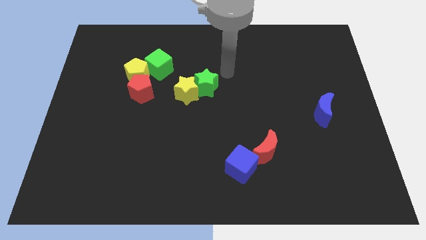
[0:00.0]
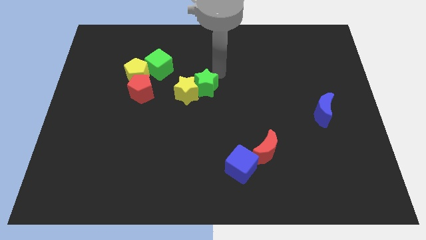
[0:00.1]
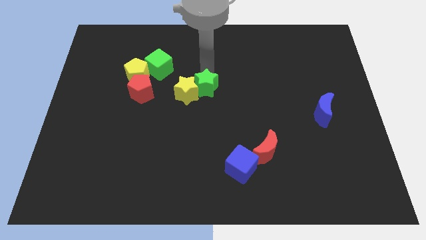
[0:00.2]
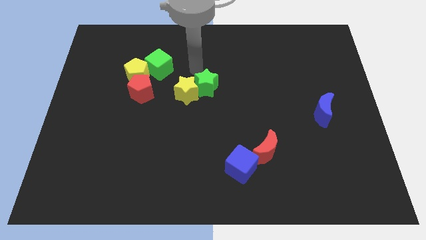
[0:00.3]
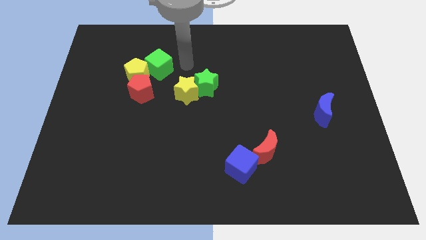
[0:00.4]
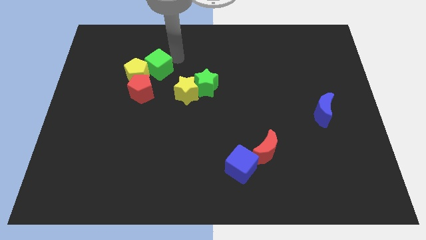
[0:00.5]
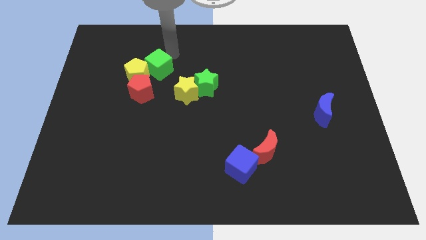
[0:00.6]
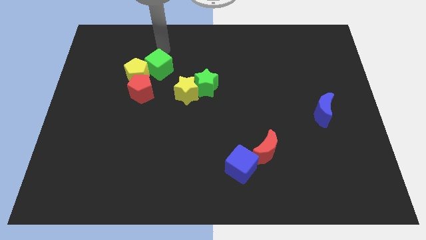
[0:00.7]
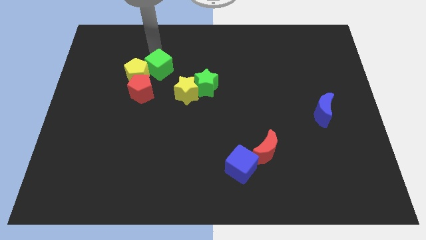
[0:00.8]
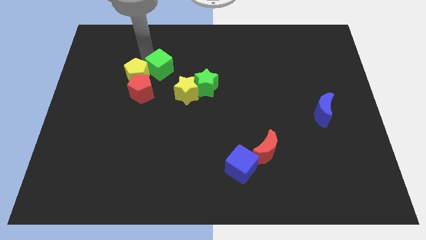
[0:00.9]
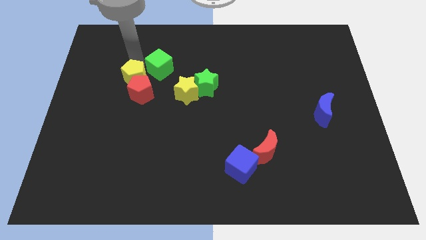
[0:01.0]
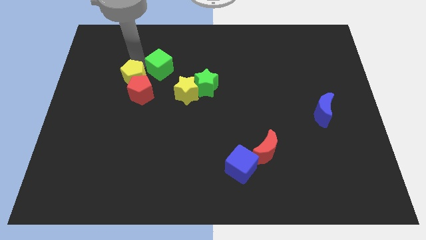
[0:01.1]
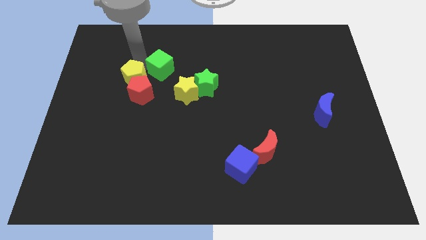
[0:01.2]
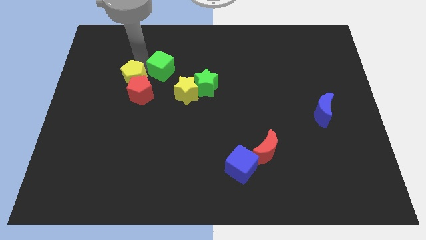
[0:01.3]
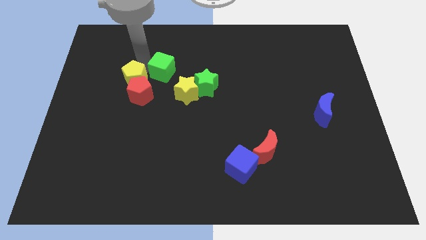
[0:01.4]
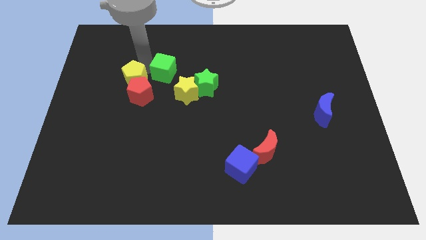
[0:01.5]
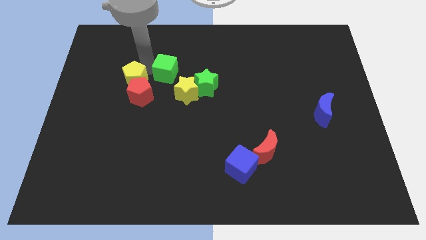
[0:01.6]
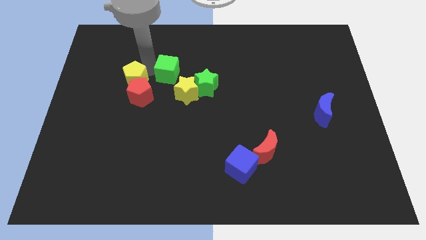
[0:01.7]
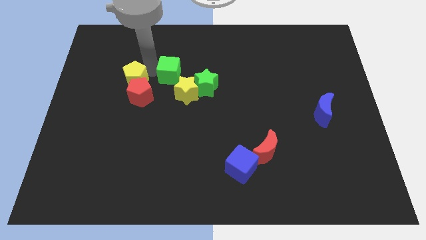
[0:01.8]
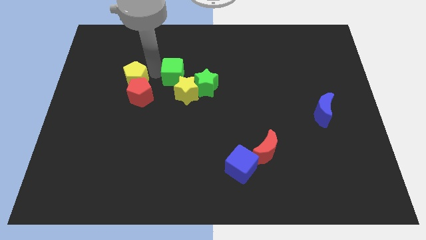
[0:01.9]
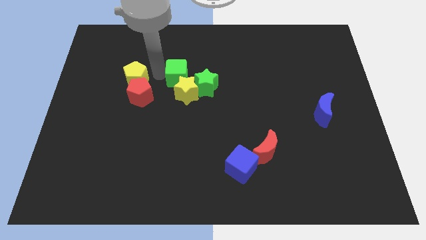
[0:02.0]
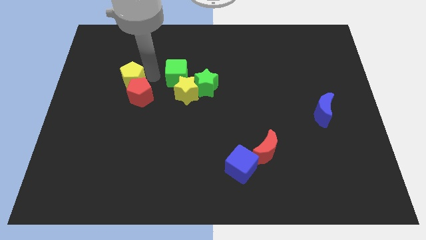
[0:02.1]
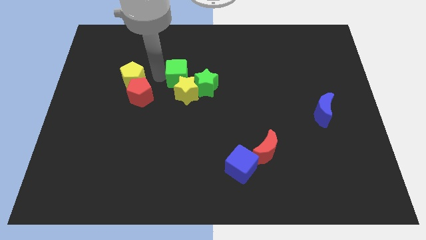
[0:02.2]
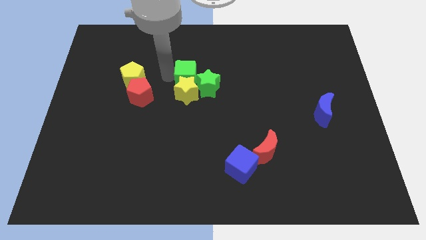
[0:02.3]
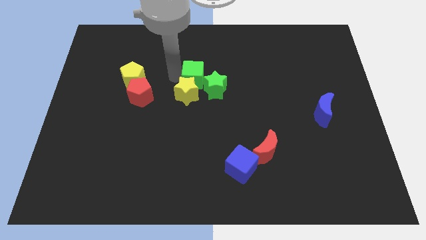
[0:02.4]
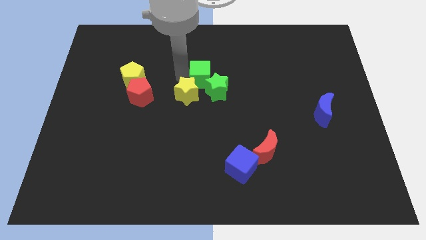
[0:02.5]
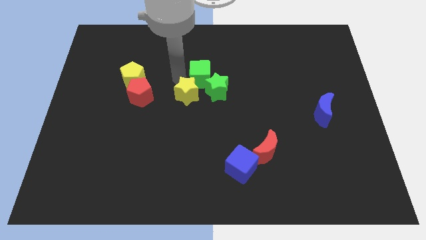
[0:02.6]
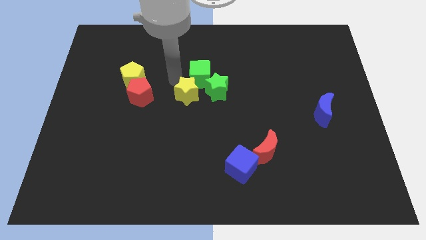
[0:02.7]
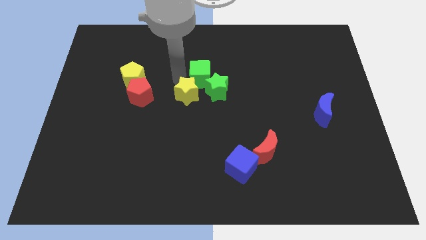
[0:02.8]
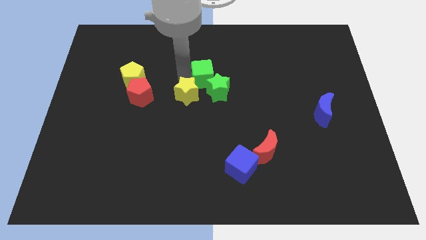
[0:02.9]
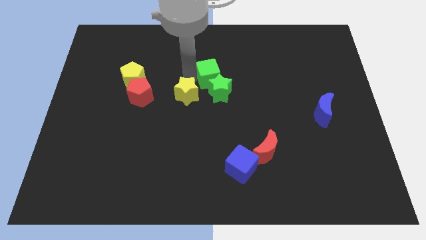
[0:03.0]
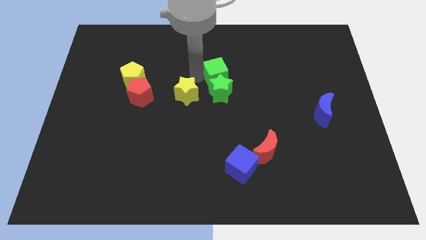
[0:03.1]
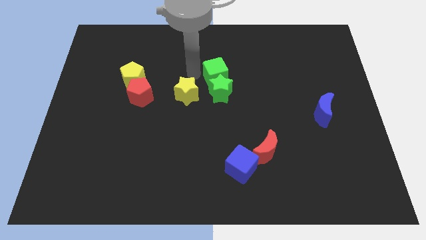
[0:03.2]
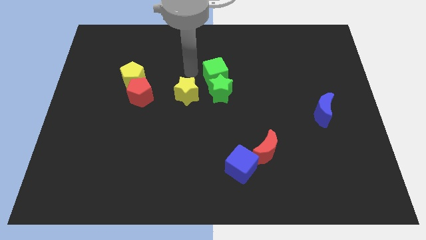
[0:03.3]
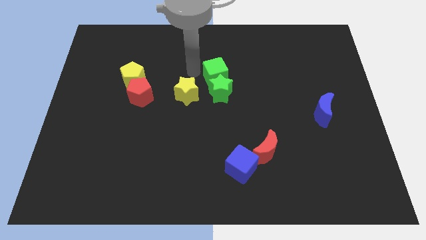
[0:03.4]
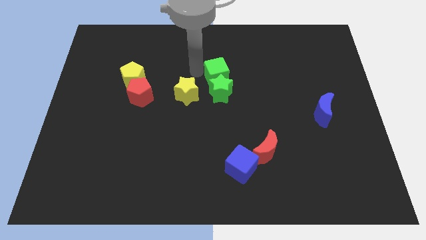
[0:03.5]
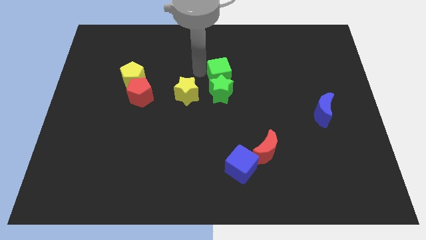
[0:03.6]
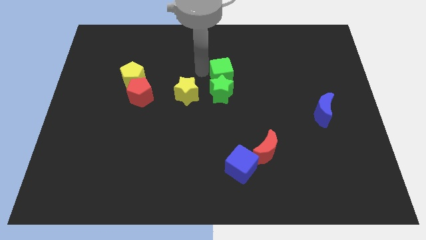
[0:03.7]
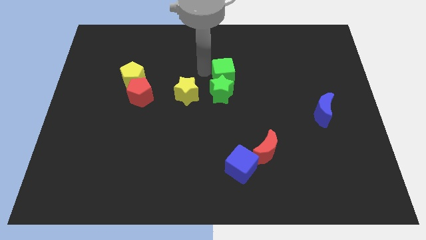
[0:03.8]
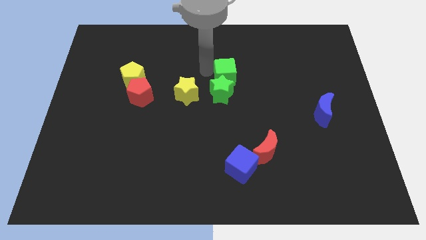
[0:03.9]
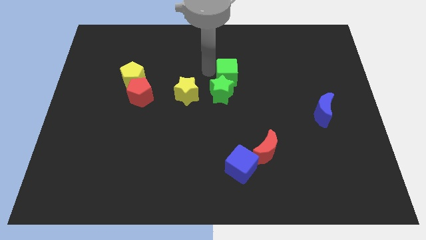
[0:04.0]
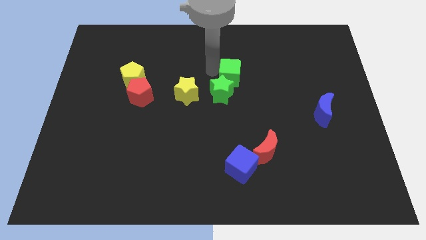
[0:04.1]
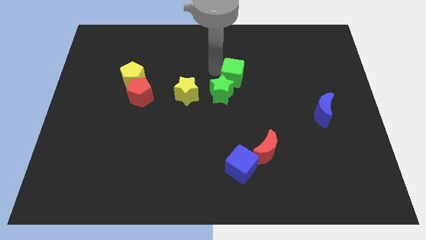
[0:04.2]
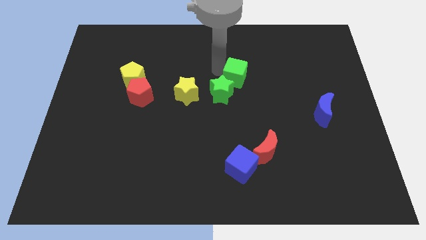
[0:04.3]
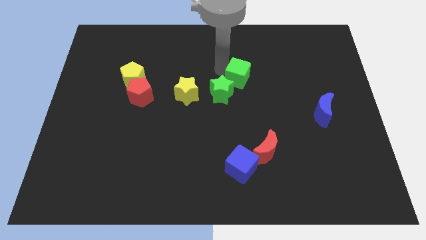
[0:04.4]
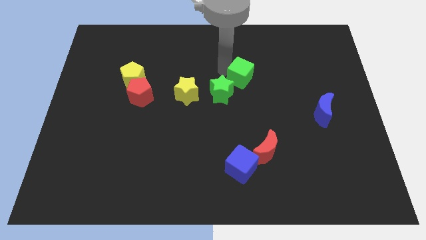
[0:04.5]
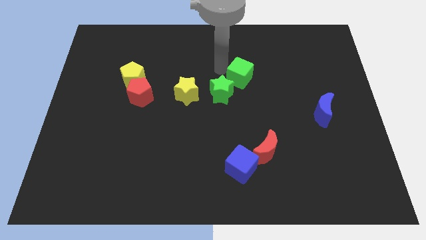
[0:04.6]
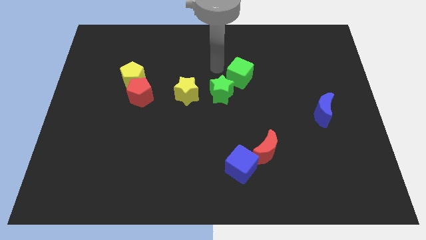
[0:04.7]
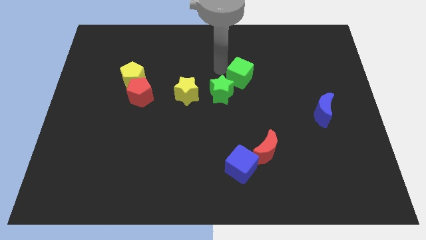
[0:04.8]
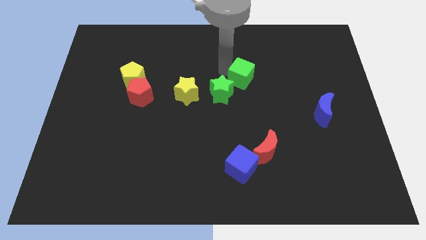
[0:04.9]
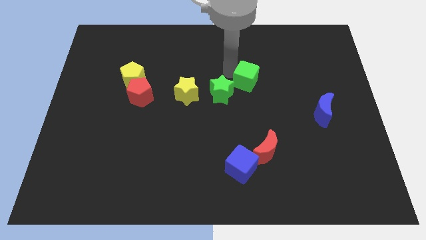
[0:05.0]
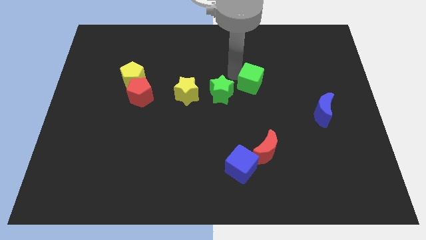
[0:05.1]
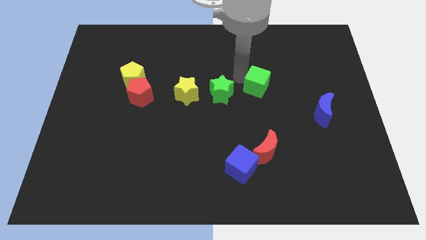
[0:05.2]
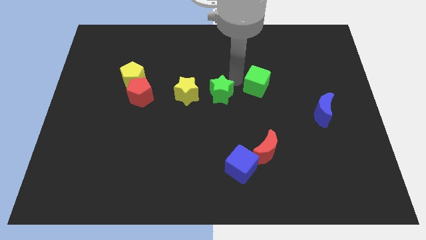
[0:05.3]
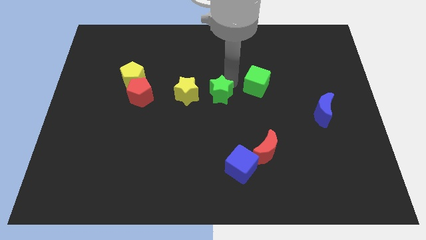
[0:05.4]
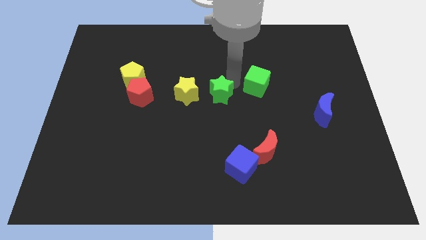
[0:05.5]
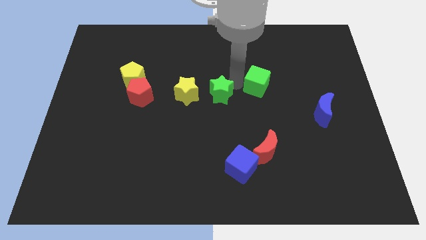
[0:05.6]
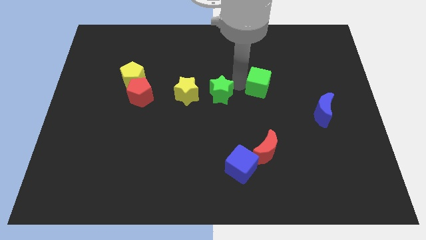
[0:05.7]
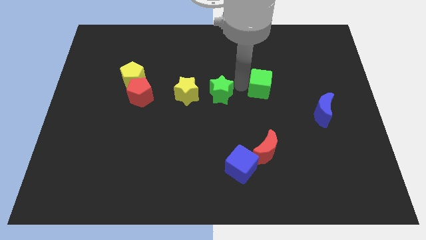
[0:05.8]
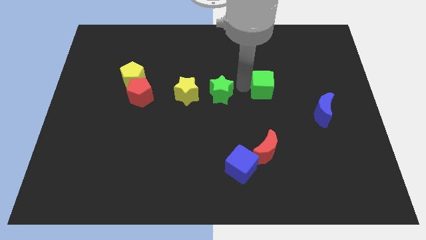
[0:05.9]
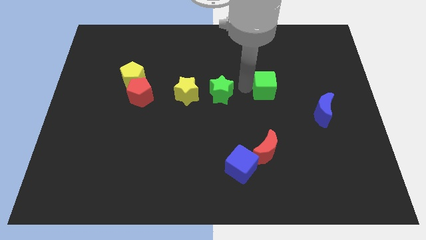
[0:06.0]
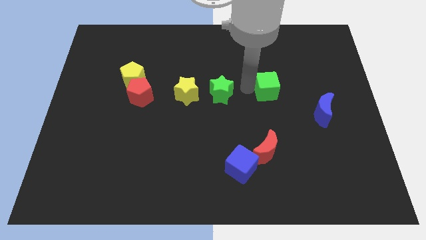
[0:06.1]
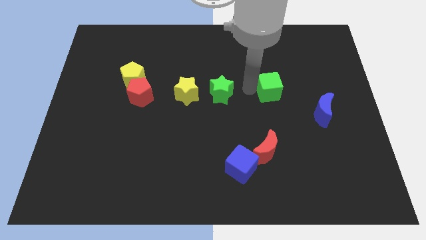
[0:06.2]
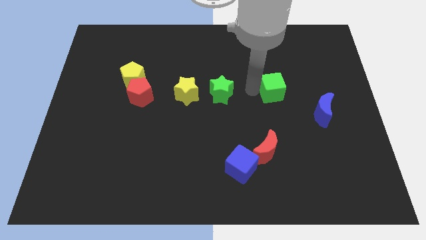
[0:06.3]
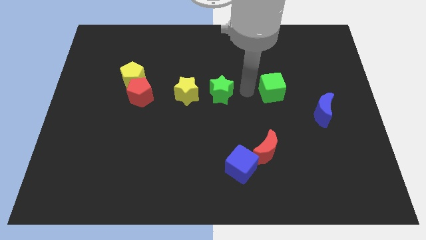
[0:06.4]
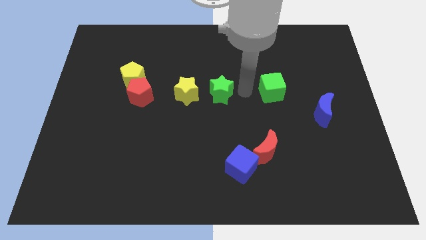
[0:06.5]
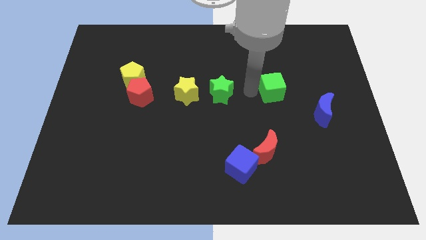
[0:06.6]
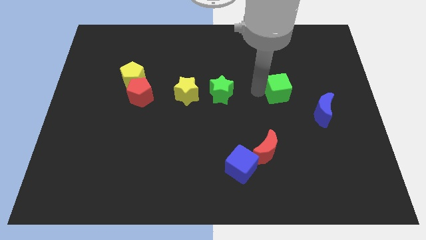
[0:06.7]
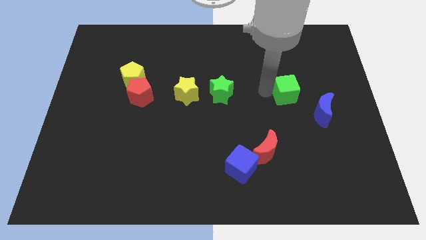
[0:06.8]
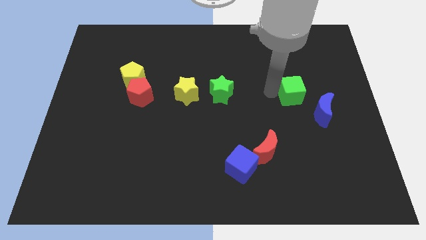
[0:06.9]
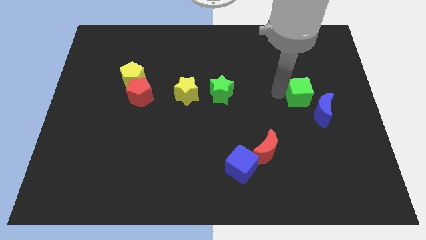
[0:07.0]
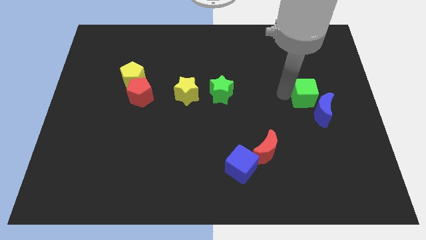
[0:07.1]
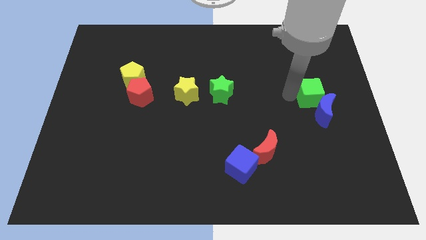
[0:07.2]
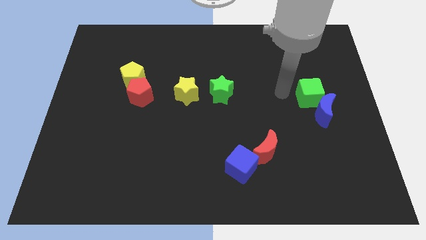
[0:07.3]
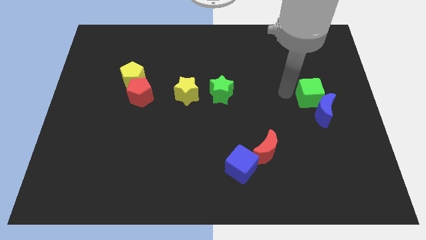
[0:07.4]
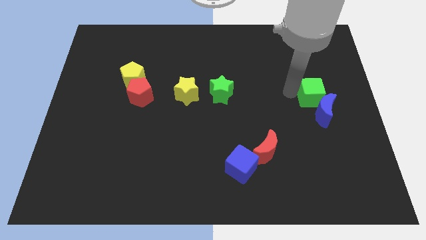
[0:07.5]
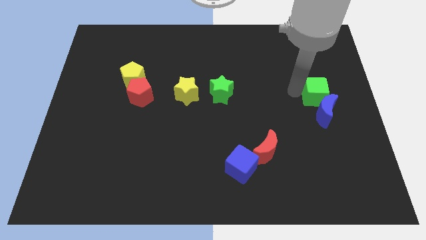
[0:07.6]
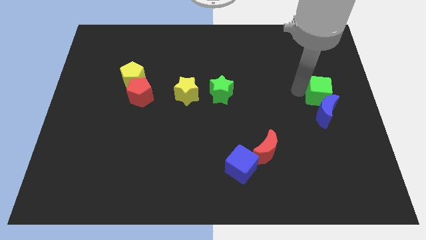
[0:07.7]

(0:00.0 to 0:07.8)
slide the green cube to the right side of the board

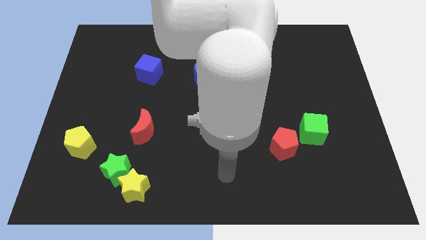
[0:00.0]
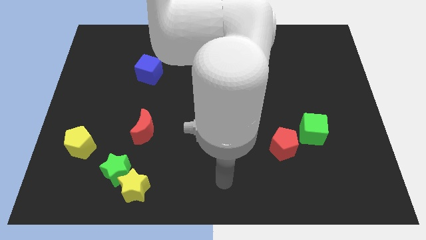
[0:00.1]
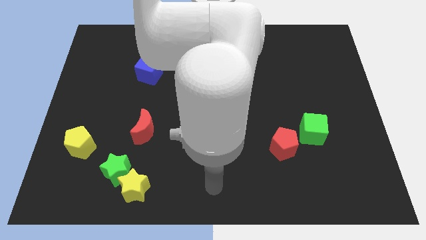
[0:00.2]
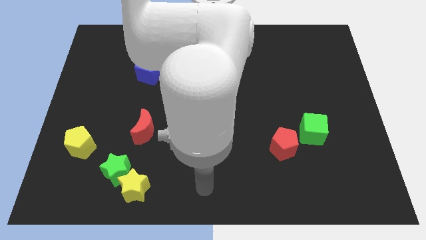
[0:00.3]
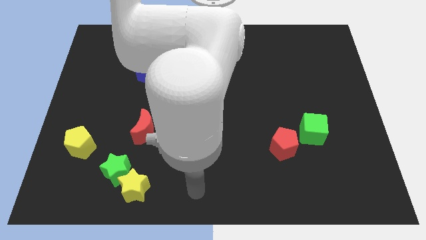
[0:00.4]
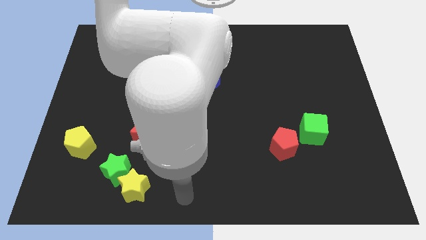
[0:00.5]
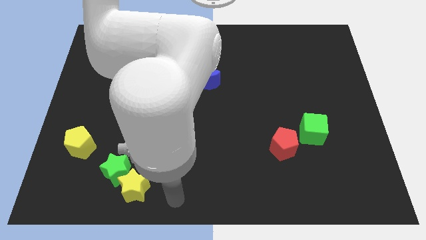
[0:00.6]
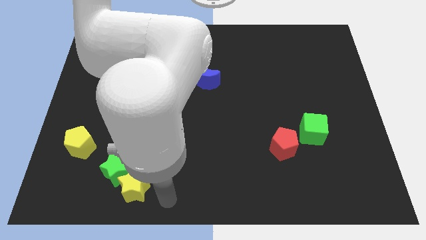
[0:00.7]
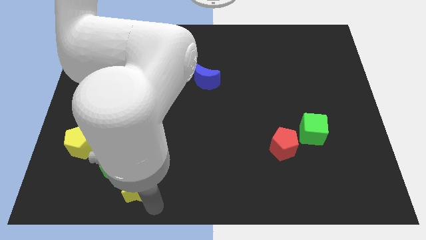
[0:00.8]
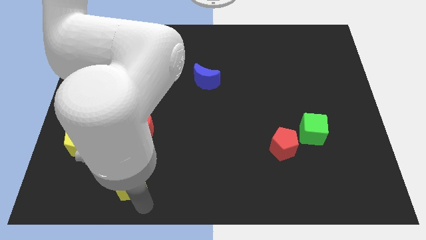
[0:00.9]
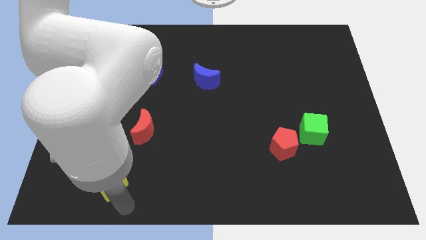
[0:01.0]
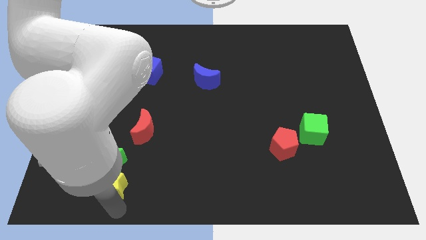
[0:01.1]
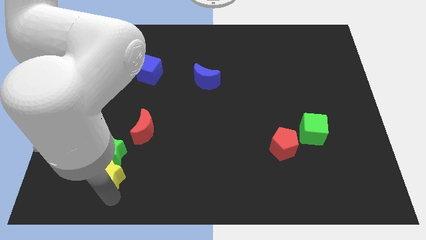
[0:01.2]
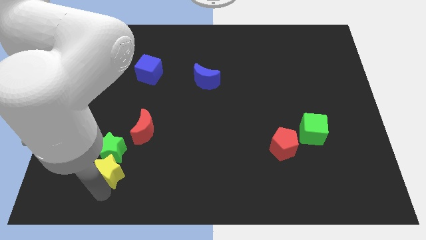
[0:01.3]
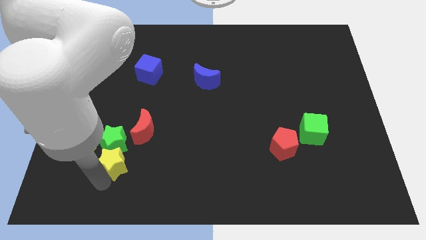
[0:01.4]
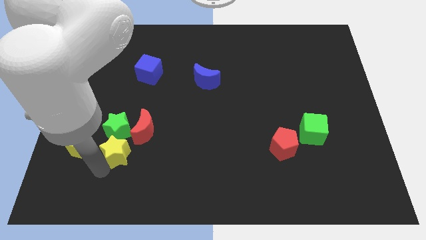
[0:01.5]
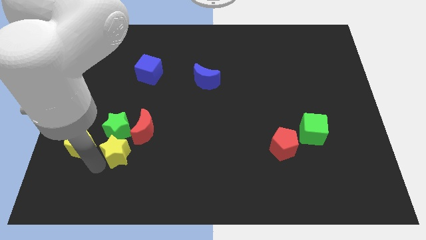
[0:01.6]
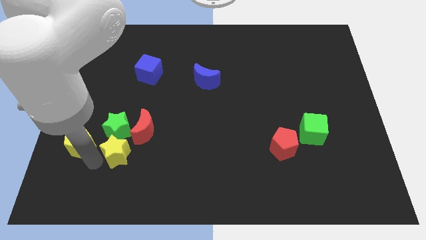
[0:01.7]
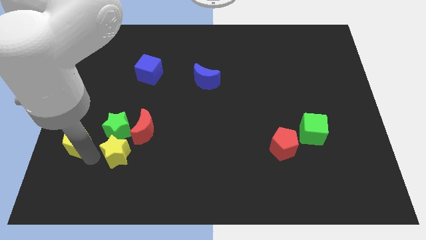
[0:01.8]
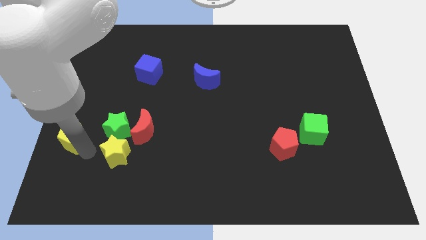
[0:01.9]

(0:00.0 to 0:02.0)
put the yellow pentagon to the center left
